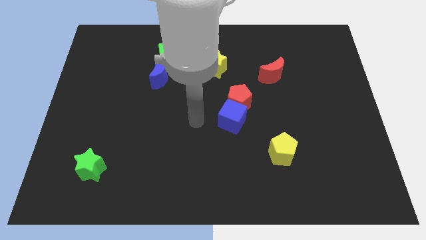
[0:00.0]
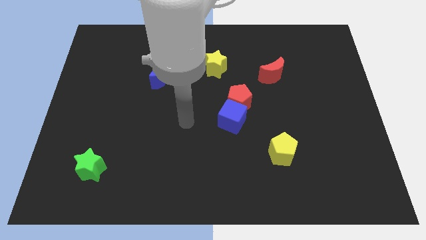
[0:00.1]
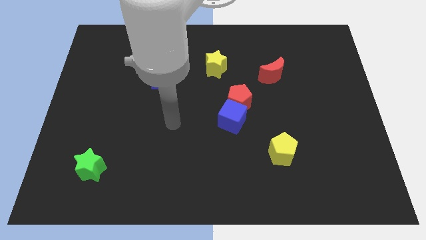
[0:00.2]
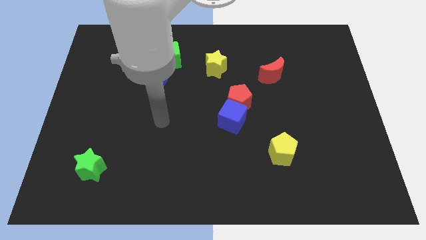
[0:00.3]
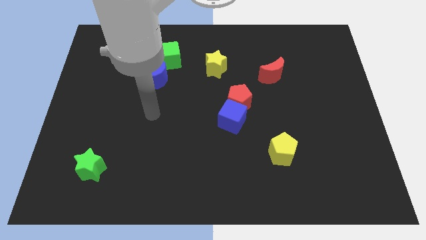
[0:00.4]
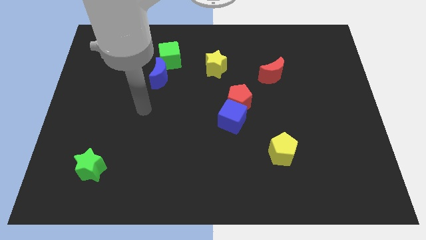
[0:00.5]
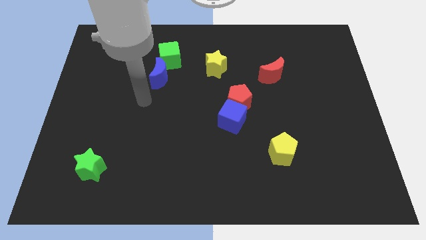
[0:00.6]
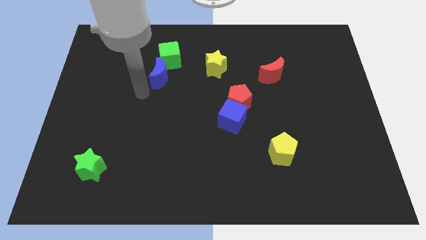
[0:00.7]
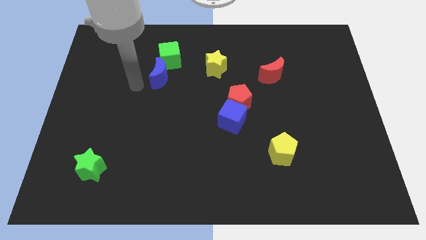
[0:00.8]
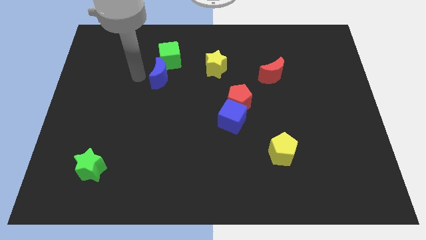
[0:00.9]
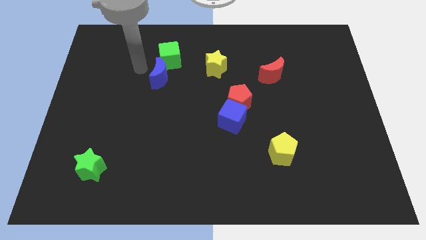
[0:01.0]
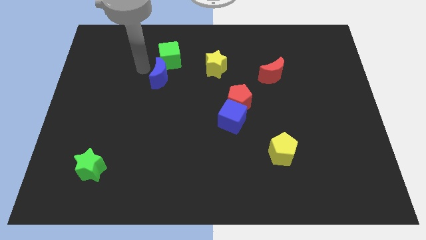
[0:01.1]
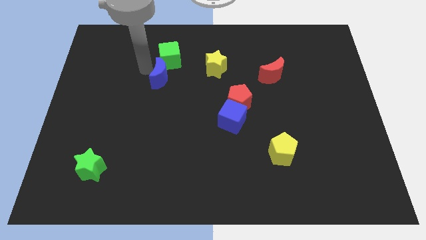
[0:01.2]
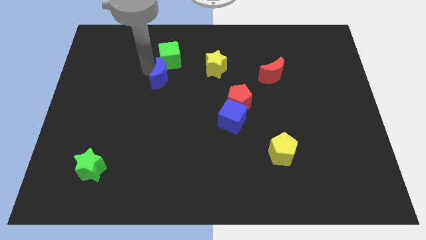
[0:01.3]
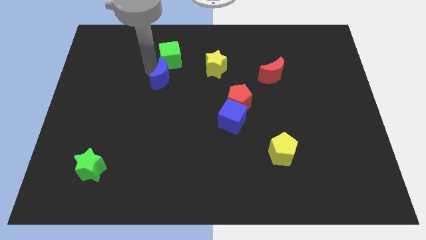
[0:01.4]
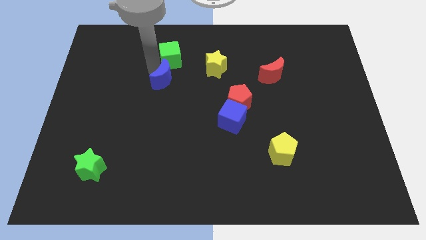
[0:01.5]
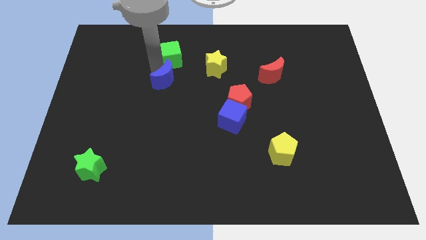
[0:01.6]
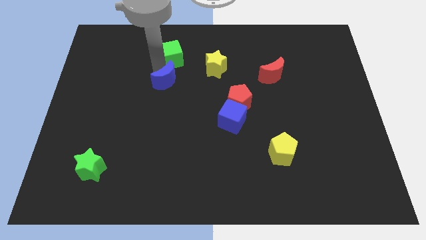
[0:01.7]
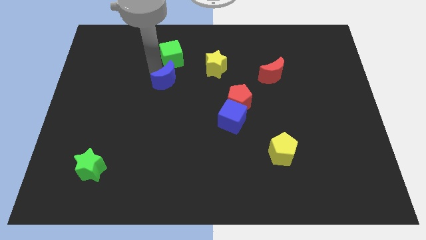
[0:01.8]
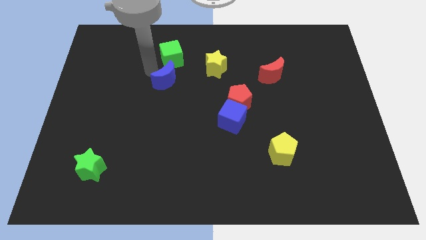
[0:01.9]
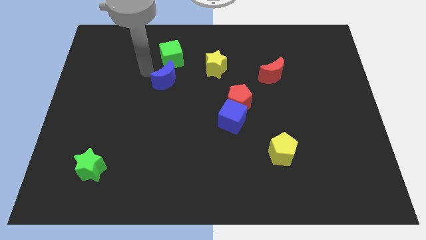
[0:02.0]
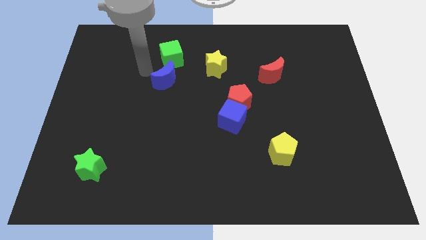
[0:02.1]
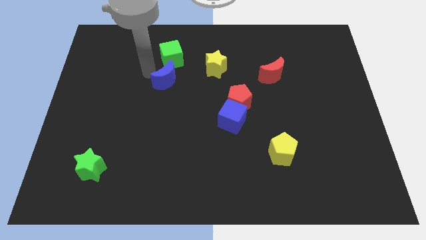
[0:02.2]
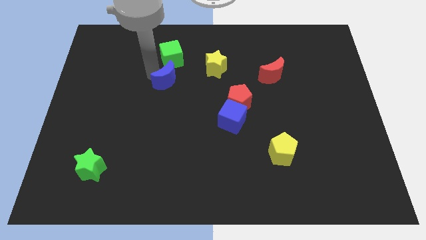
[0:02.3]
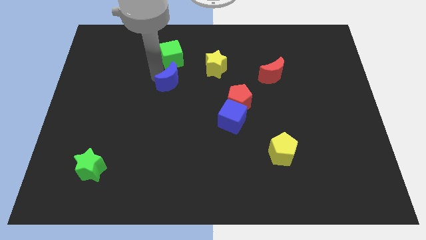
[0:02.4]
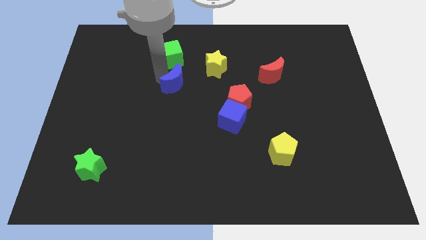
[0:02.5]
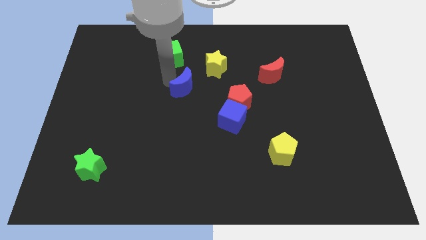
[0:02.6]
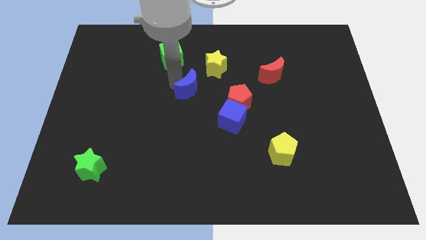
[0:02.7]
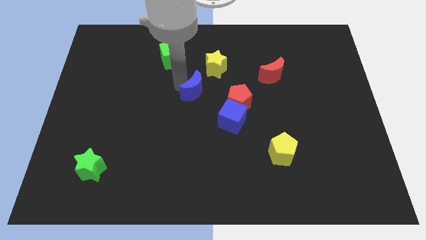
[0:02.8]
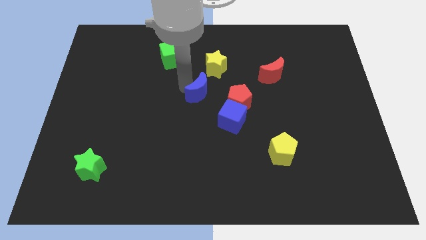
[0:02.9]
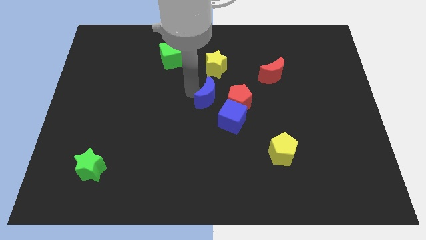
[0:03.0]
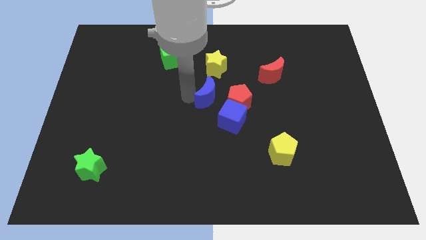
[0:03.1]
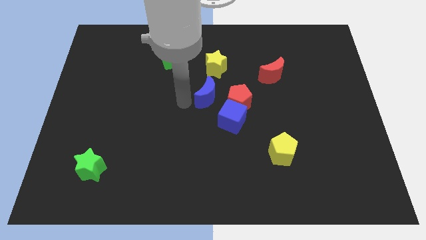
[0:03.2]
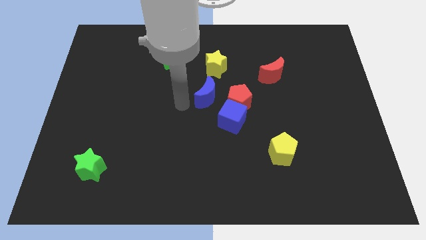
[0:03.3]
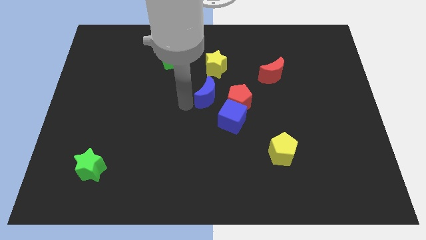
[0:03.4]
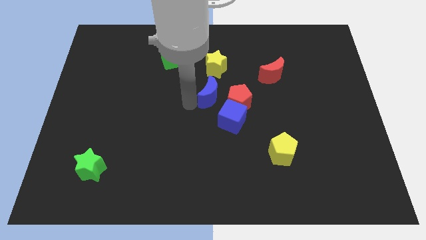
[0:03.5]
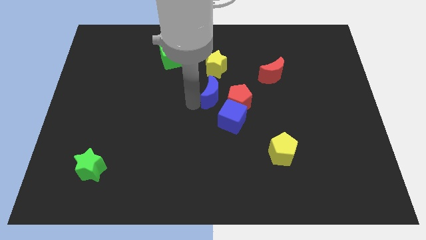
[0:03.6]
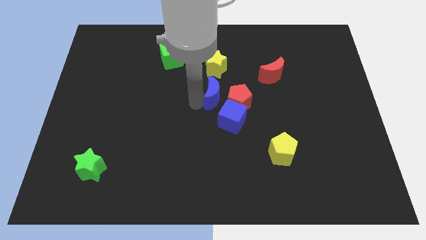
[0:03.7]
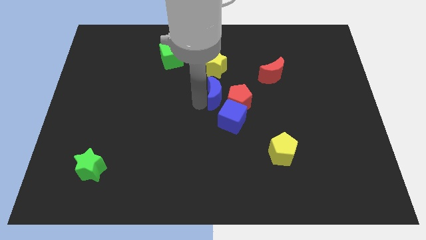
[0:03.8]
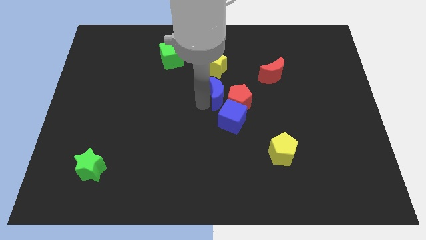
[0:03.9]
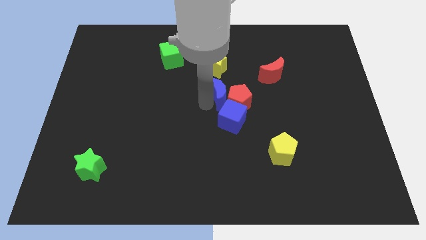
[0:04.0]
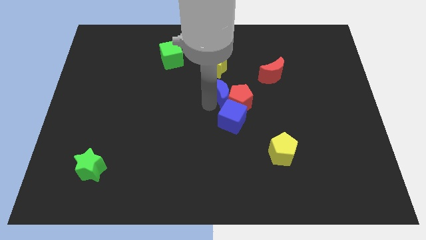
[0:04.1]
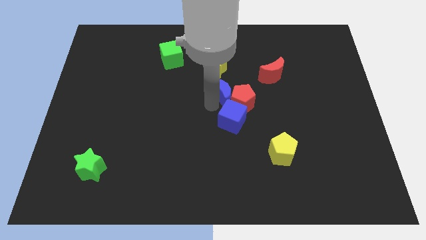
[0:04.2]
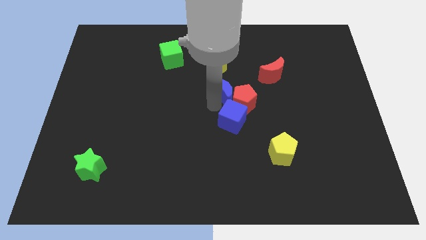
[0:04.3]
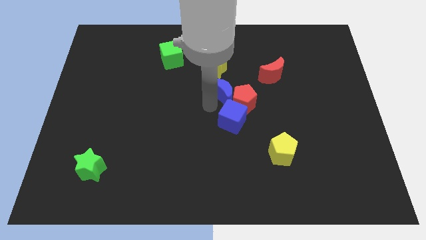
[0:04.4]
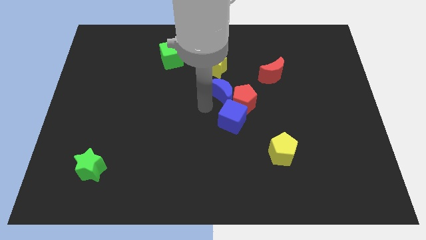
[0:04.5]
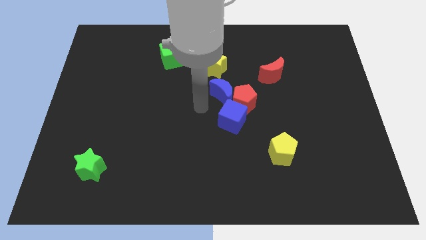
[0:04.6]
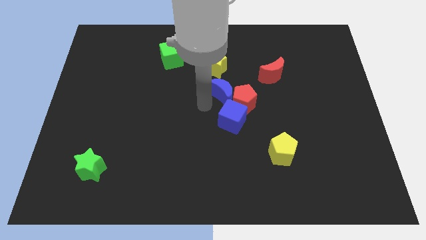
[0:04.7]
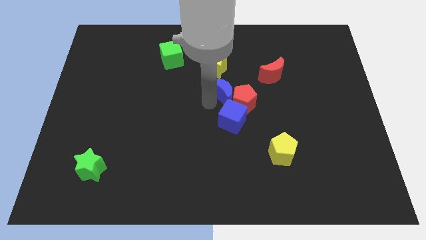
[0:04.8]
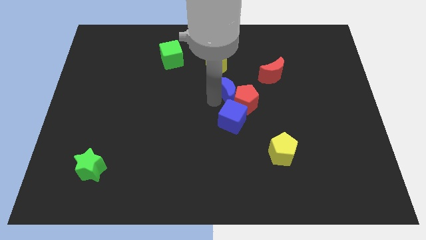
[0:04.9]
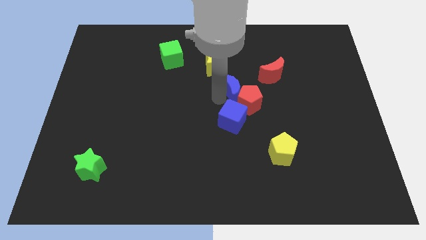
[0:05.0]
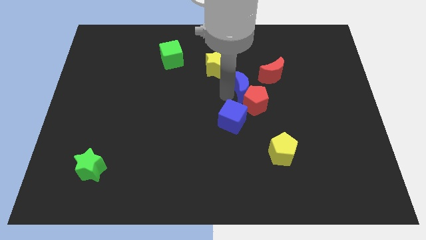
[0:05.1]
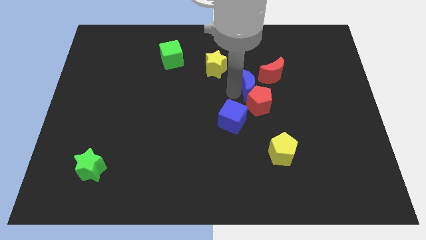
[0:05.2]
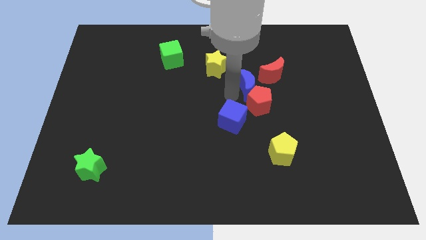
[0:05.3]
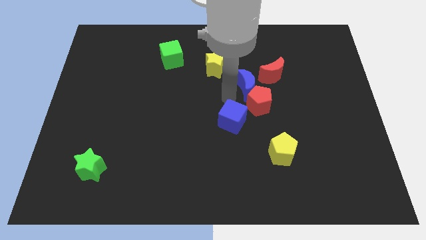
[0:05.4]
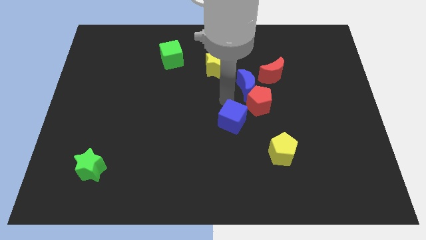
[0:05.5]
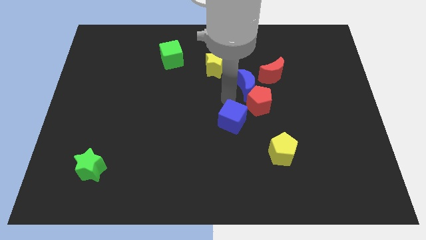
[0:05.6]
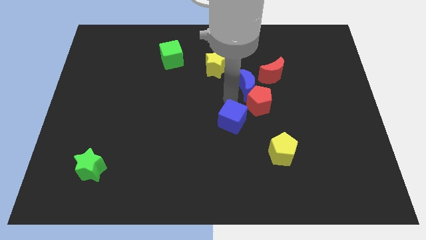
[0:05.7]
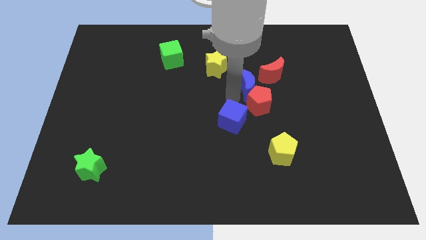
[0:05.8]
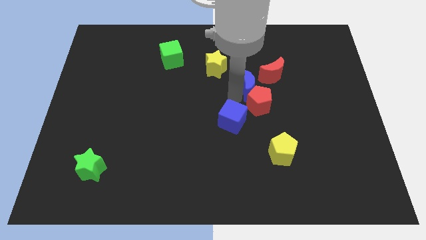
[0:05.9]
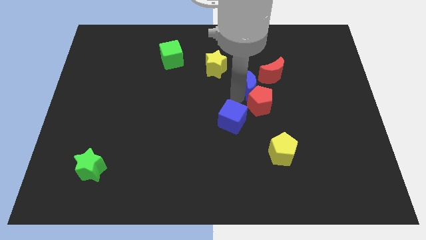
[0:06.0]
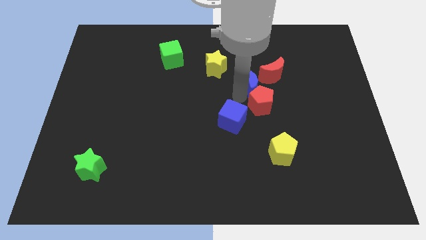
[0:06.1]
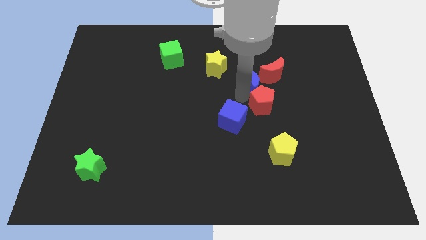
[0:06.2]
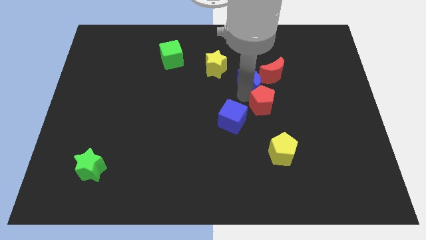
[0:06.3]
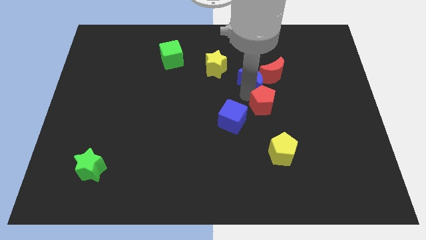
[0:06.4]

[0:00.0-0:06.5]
push the blue moon close to the red moon

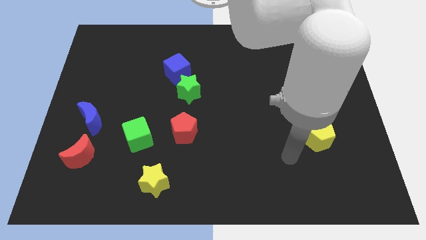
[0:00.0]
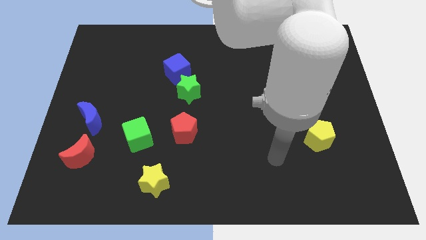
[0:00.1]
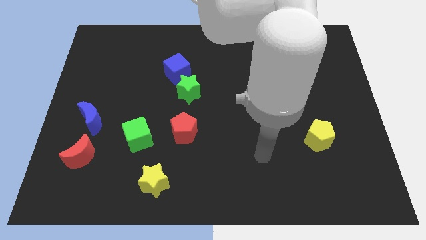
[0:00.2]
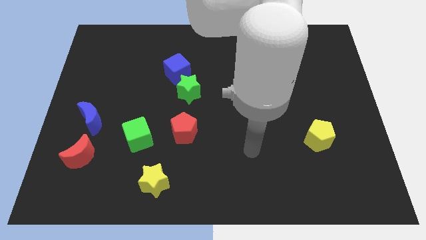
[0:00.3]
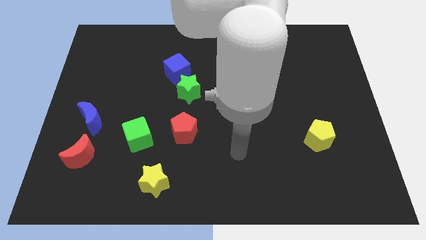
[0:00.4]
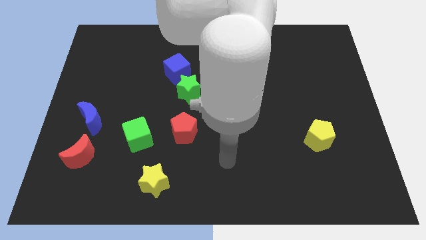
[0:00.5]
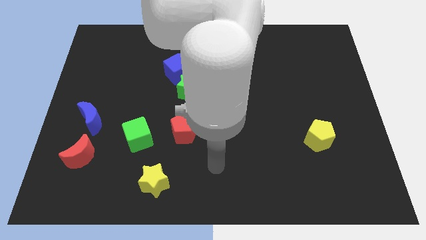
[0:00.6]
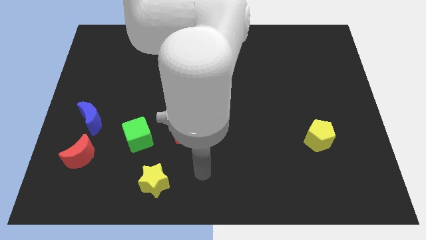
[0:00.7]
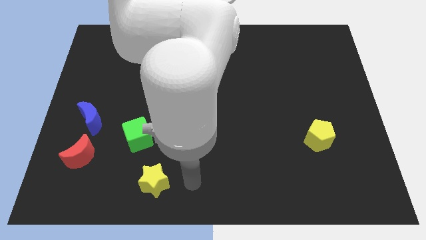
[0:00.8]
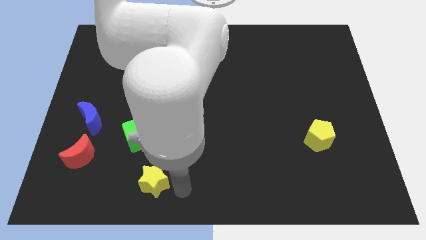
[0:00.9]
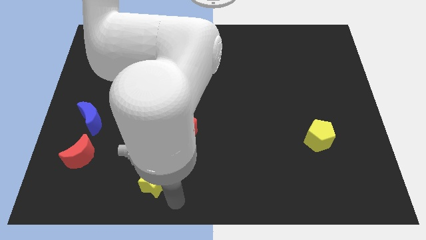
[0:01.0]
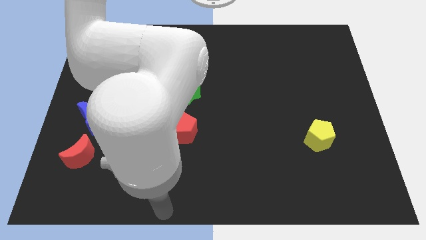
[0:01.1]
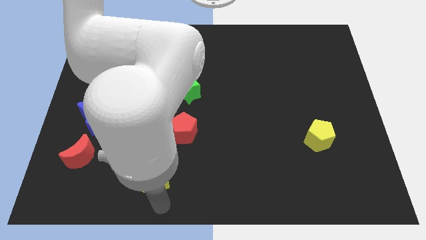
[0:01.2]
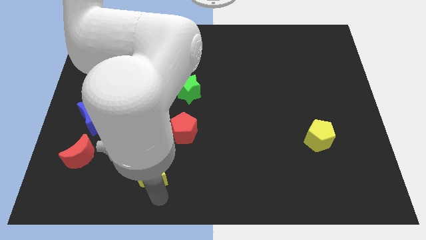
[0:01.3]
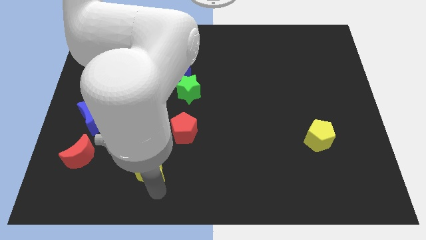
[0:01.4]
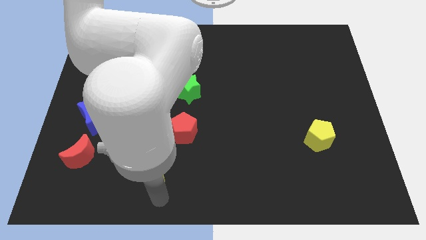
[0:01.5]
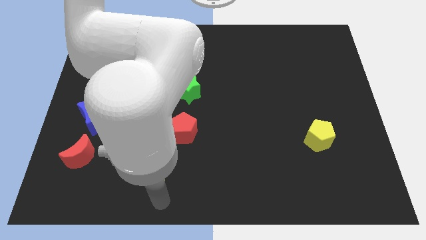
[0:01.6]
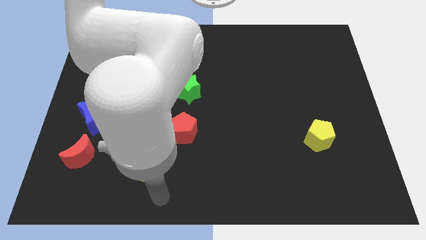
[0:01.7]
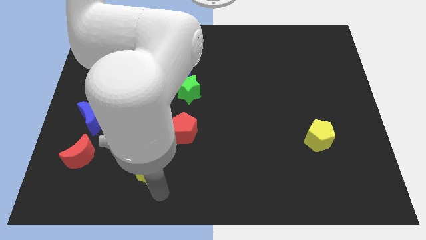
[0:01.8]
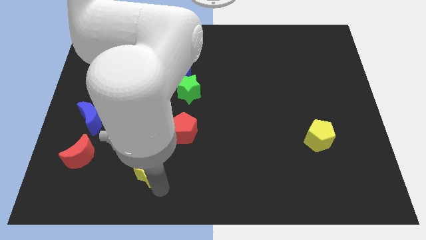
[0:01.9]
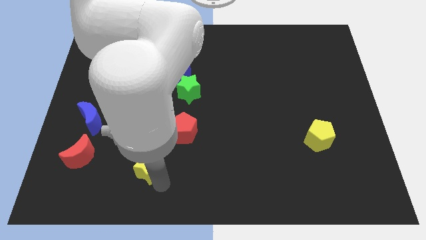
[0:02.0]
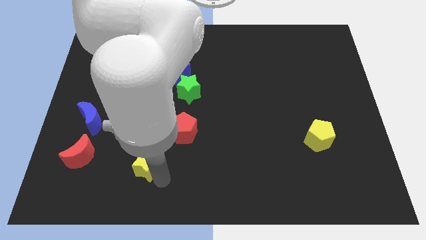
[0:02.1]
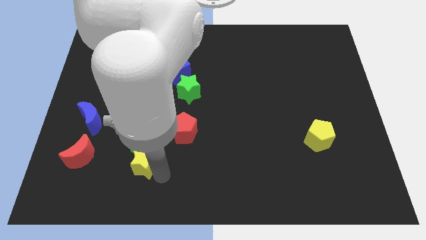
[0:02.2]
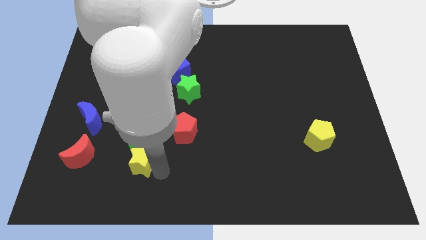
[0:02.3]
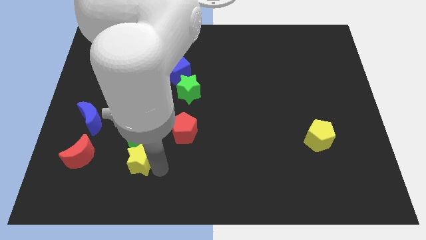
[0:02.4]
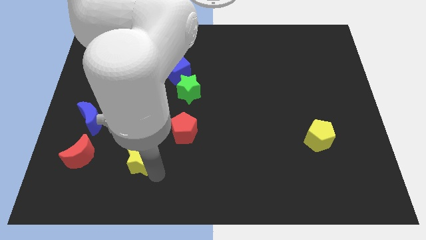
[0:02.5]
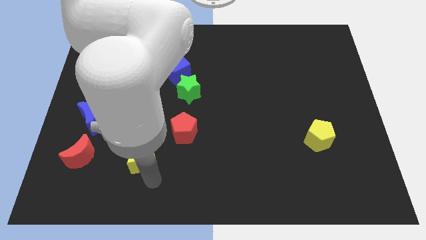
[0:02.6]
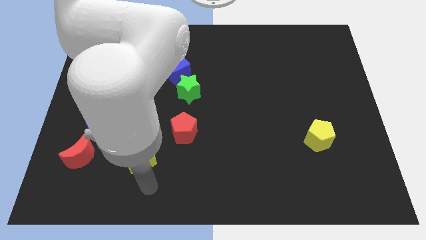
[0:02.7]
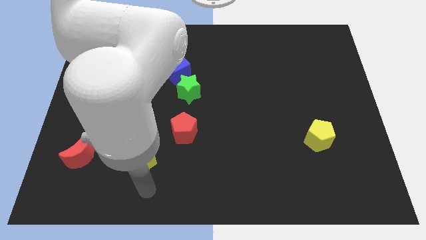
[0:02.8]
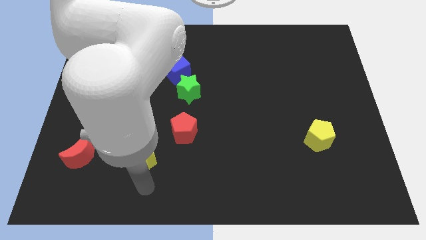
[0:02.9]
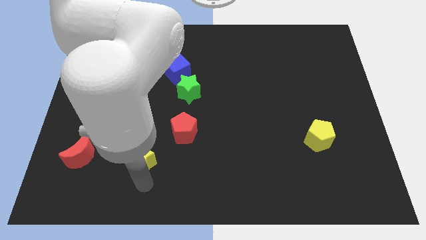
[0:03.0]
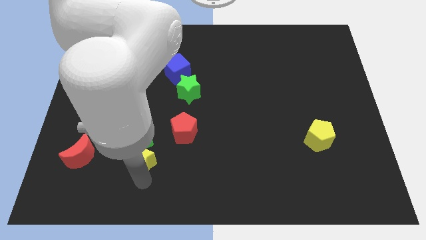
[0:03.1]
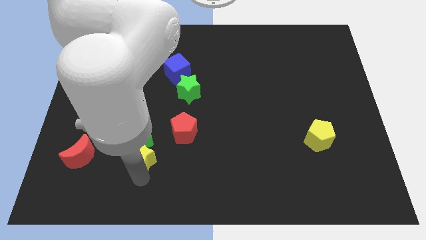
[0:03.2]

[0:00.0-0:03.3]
move the yellow star close to the green cube
